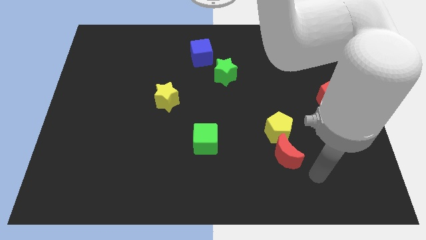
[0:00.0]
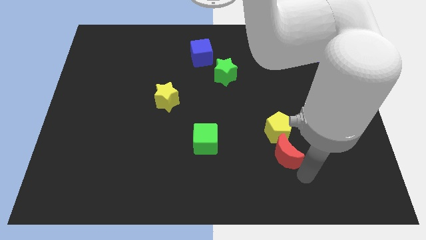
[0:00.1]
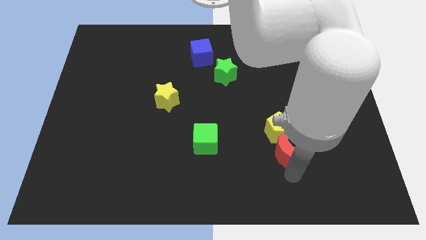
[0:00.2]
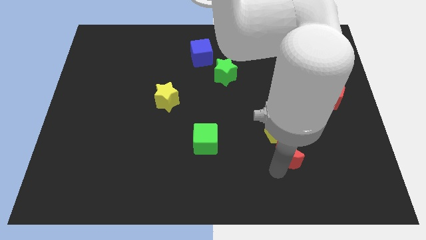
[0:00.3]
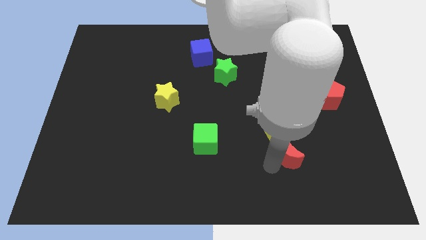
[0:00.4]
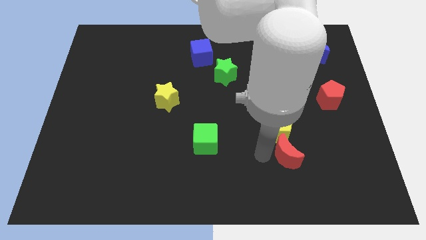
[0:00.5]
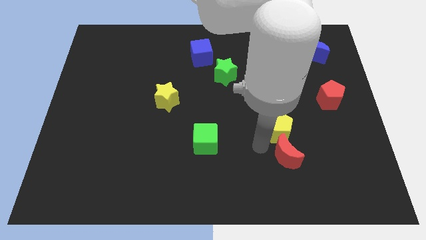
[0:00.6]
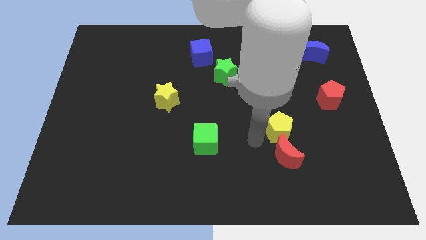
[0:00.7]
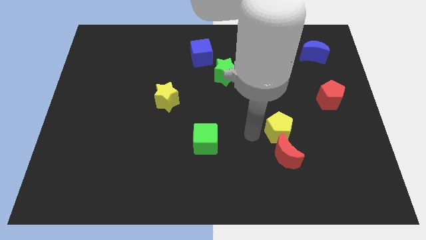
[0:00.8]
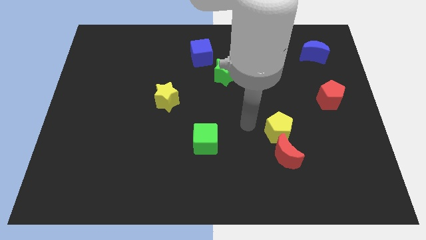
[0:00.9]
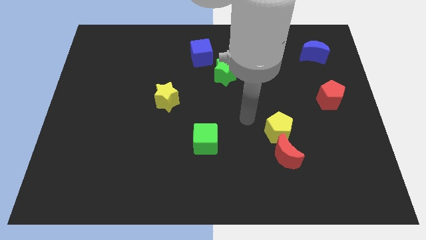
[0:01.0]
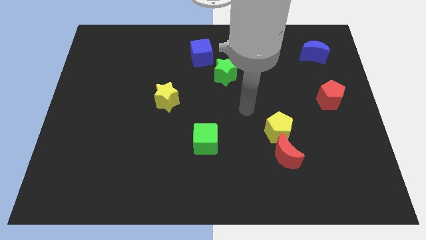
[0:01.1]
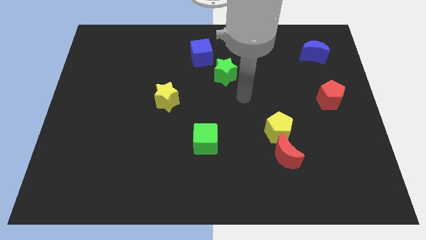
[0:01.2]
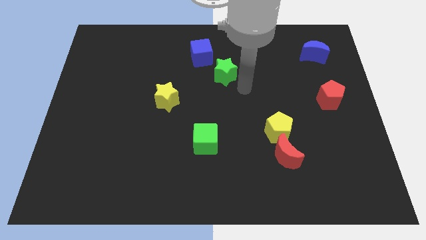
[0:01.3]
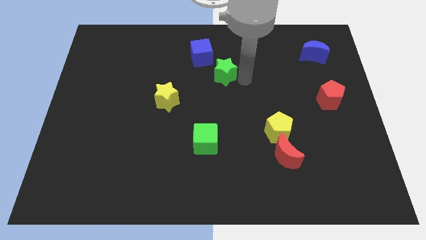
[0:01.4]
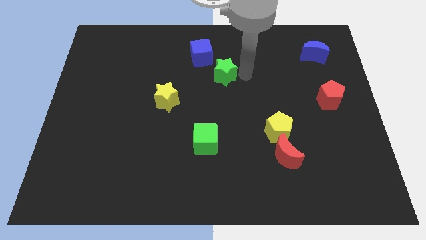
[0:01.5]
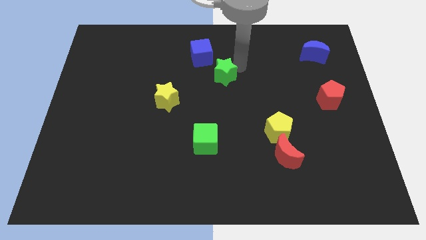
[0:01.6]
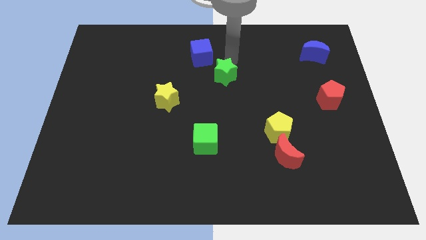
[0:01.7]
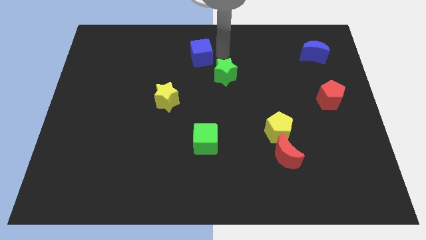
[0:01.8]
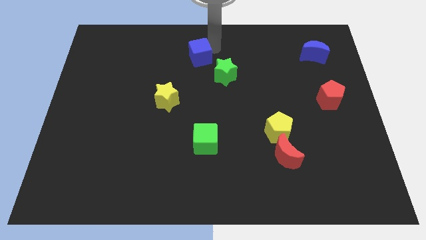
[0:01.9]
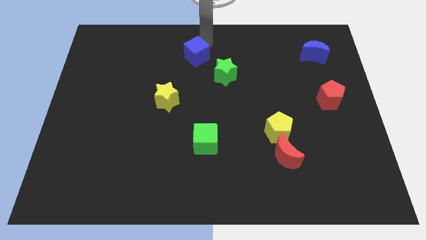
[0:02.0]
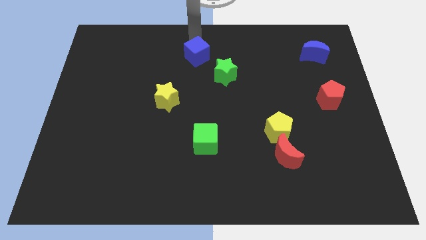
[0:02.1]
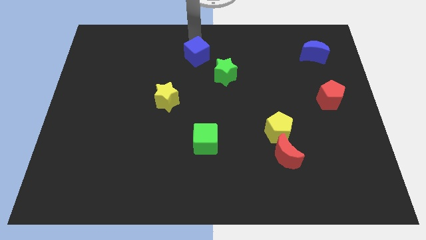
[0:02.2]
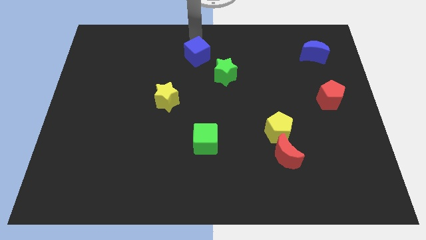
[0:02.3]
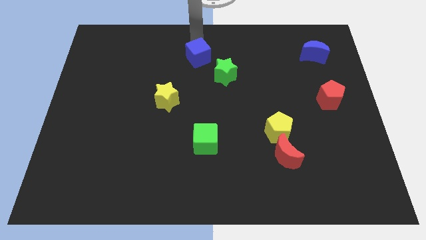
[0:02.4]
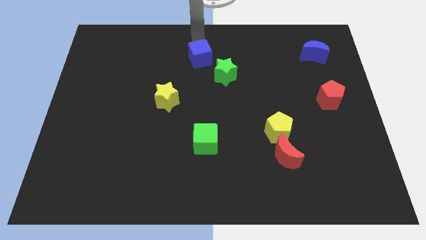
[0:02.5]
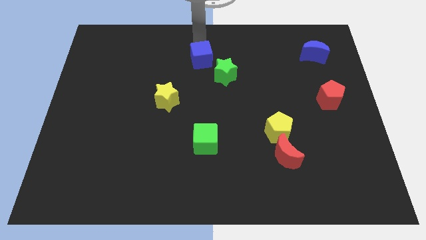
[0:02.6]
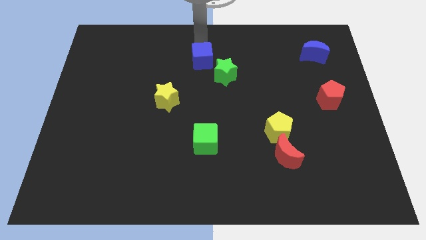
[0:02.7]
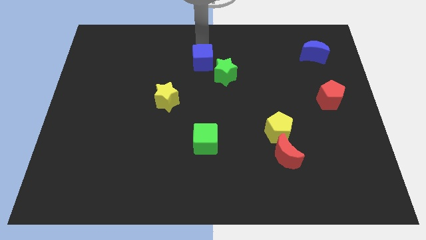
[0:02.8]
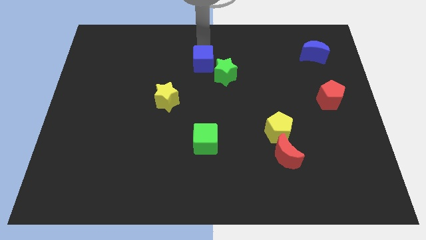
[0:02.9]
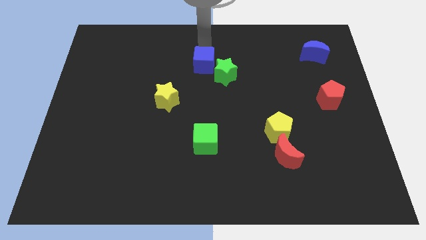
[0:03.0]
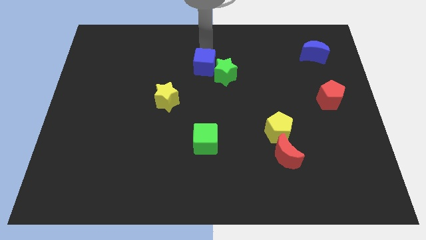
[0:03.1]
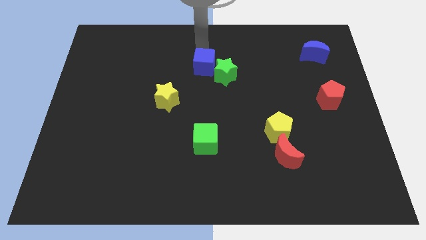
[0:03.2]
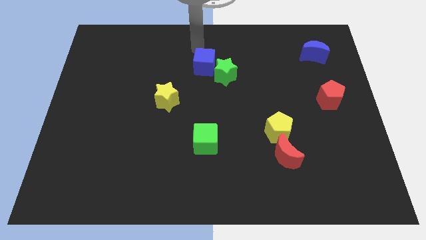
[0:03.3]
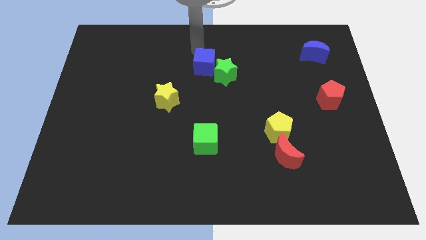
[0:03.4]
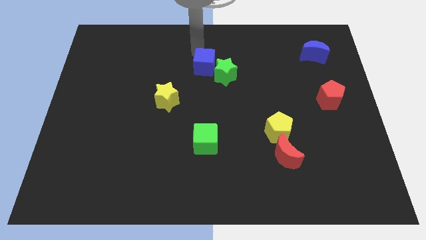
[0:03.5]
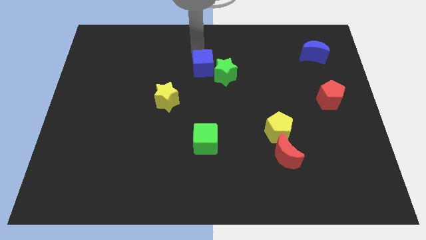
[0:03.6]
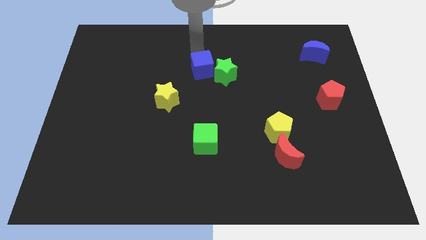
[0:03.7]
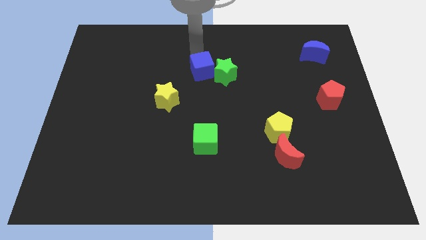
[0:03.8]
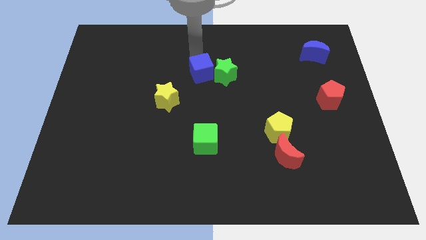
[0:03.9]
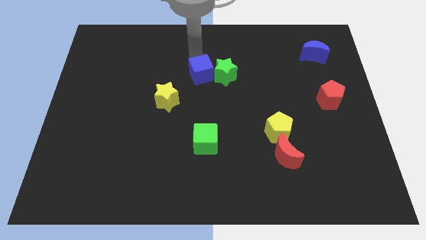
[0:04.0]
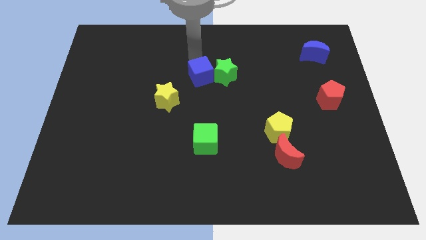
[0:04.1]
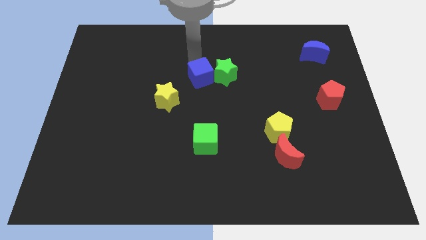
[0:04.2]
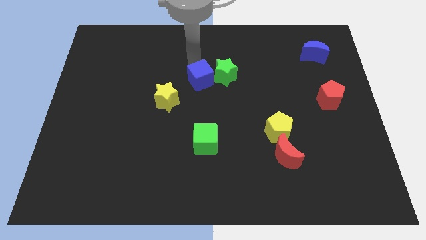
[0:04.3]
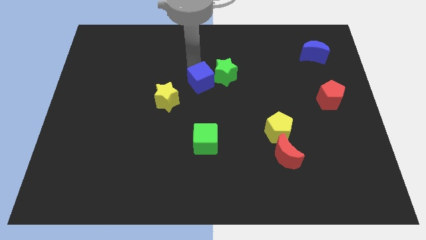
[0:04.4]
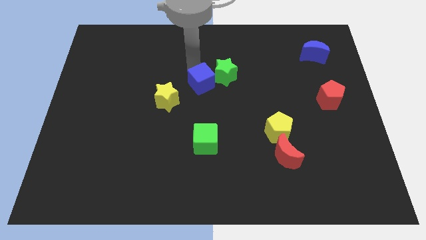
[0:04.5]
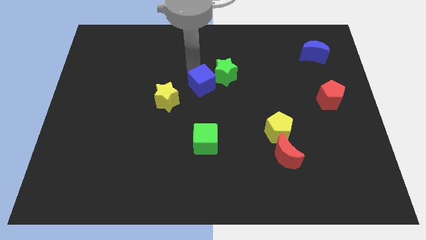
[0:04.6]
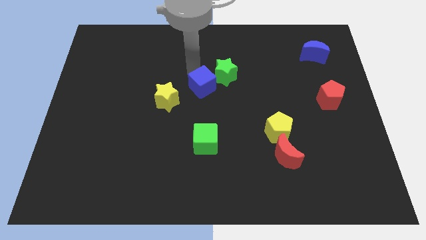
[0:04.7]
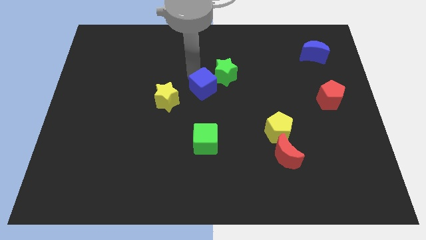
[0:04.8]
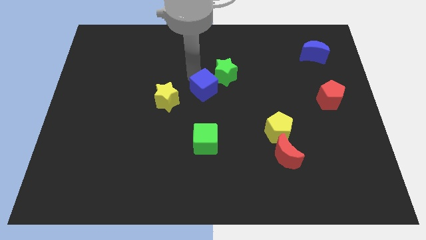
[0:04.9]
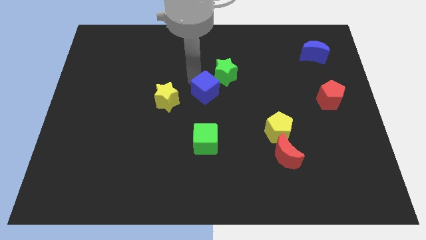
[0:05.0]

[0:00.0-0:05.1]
put the blue cube to the bottom side of the green star

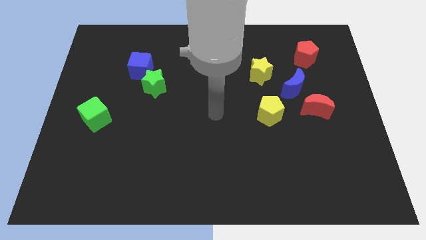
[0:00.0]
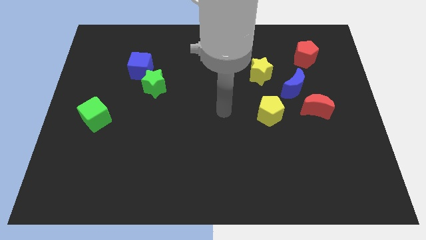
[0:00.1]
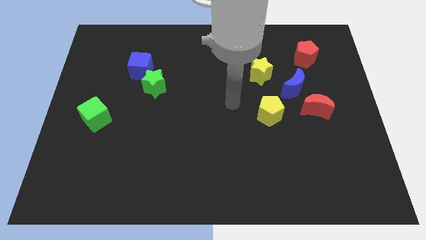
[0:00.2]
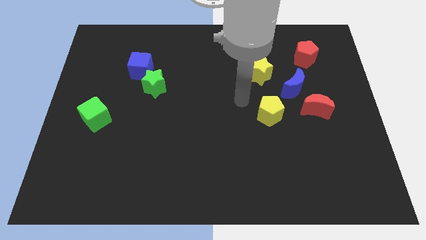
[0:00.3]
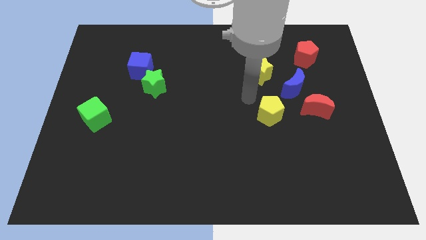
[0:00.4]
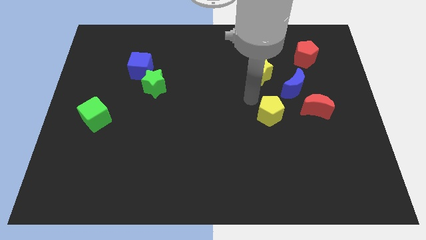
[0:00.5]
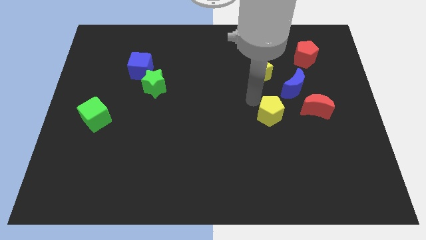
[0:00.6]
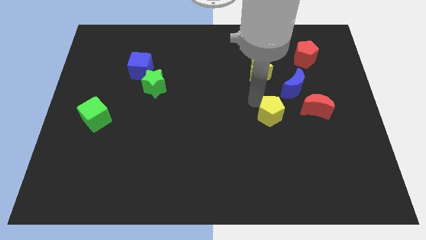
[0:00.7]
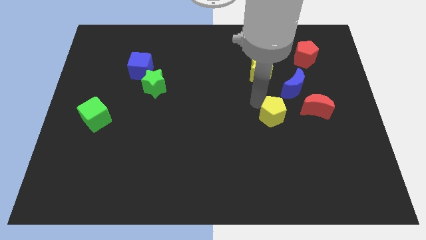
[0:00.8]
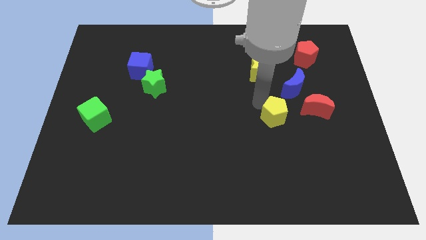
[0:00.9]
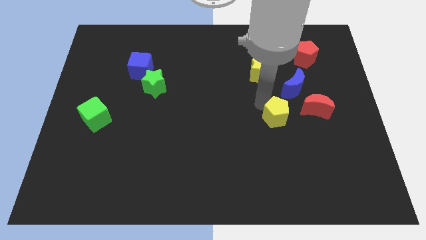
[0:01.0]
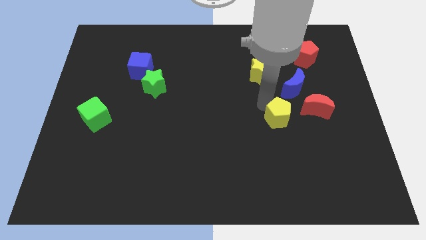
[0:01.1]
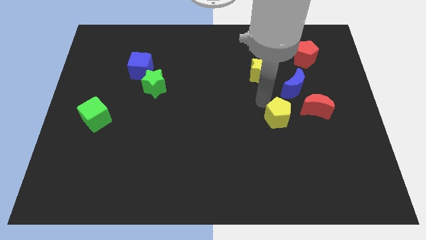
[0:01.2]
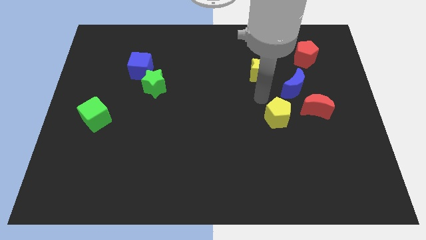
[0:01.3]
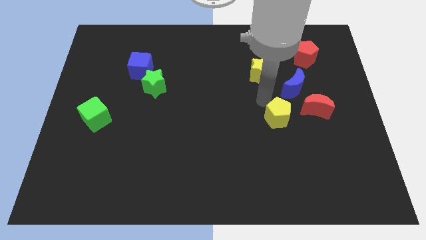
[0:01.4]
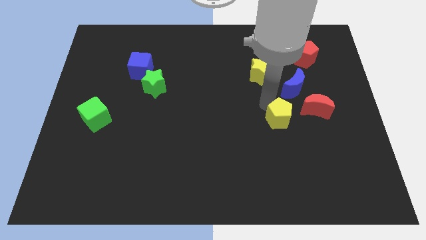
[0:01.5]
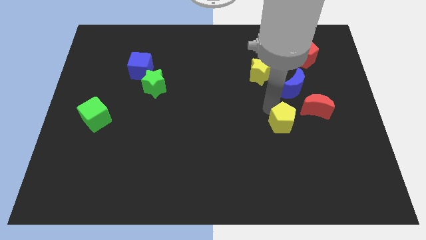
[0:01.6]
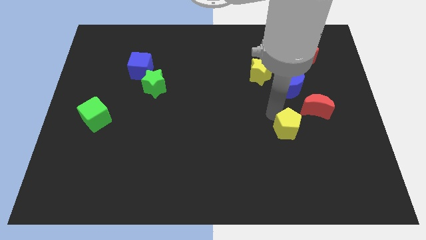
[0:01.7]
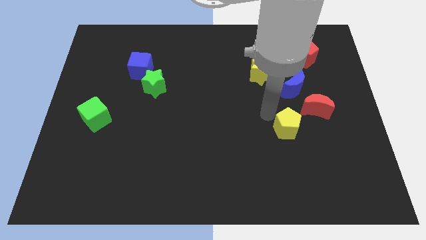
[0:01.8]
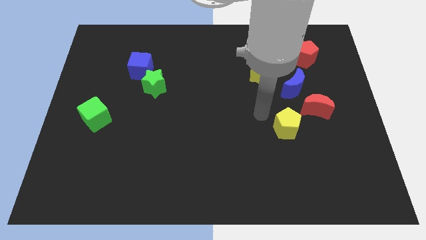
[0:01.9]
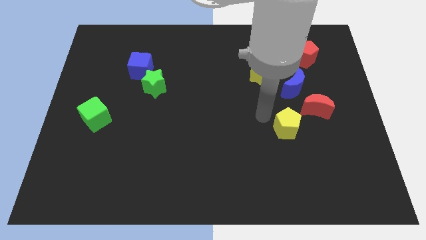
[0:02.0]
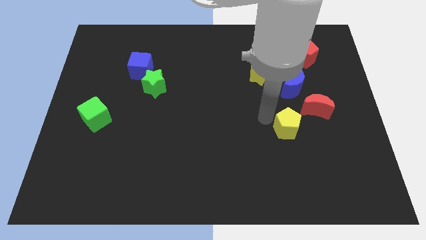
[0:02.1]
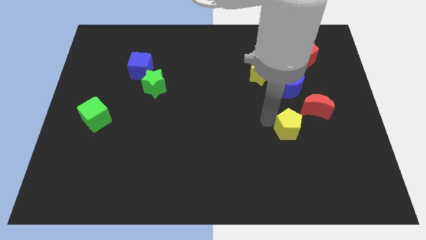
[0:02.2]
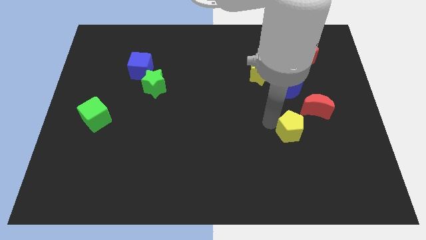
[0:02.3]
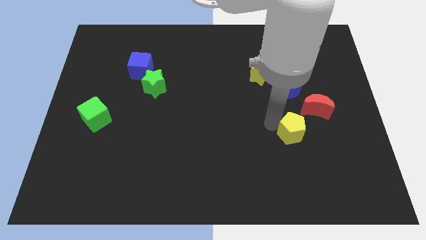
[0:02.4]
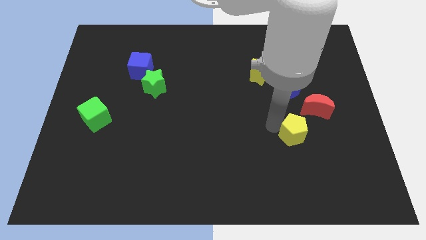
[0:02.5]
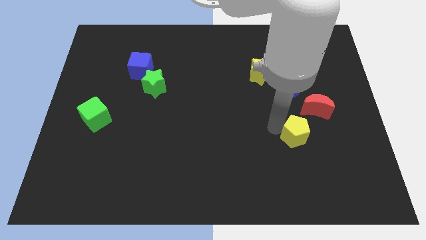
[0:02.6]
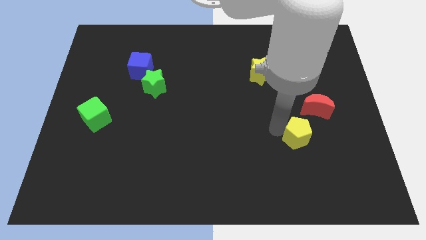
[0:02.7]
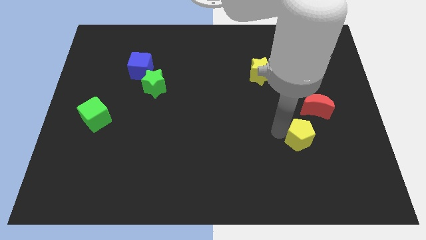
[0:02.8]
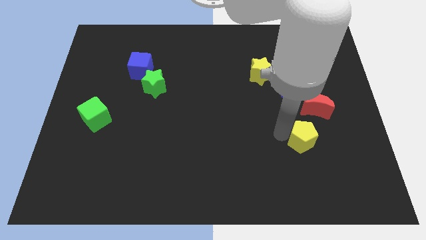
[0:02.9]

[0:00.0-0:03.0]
push the yellow pentagon to the bottom side of the red moon
